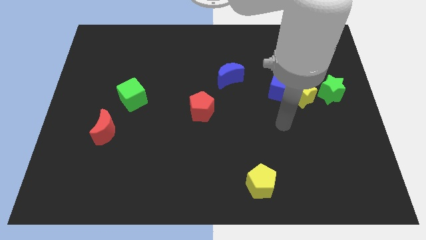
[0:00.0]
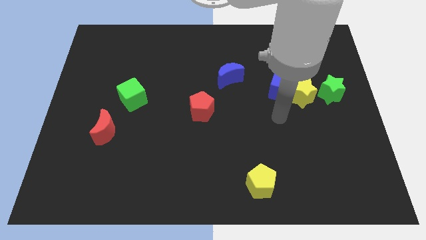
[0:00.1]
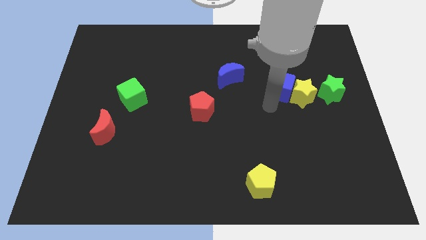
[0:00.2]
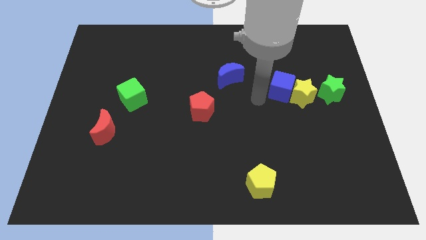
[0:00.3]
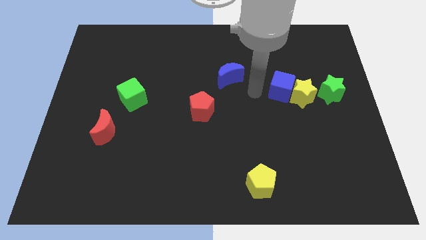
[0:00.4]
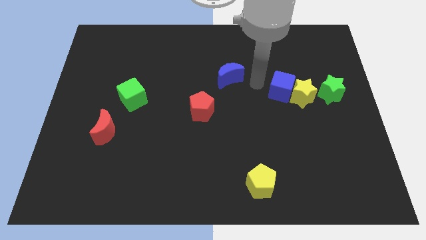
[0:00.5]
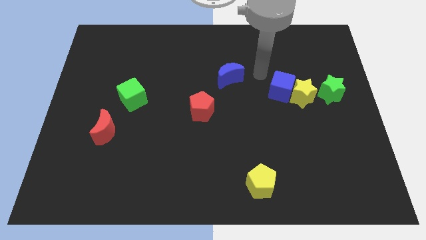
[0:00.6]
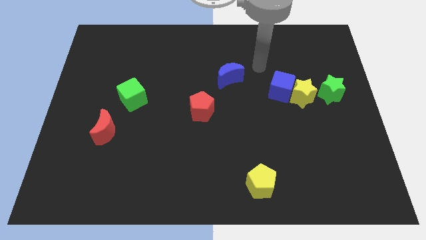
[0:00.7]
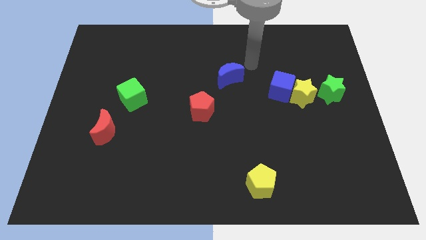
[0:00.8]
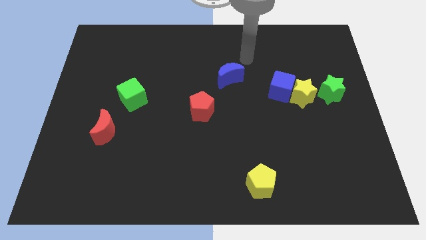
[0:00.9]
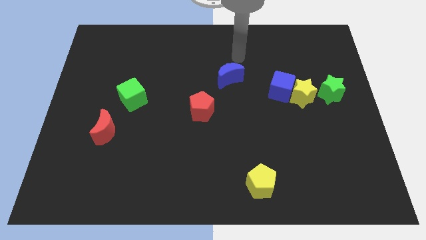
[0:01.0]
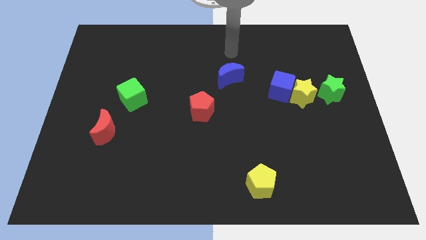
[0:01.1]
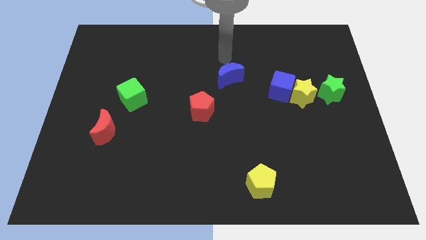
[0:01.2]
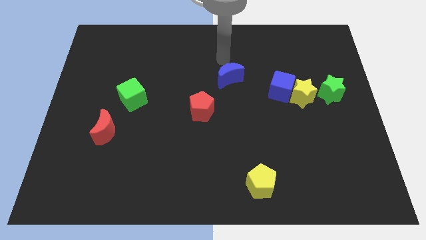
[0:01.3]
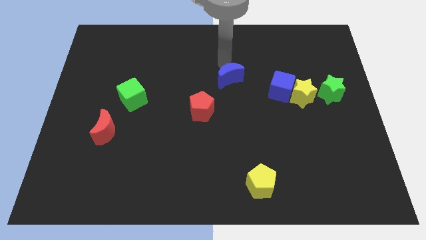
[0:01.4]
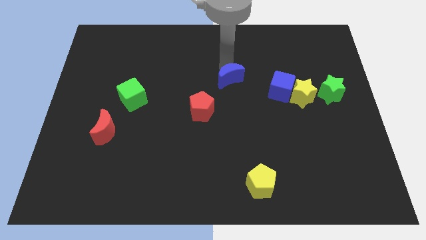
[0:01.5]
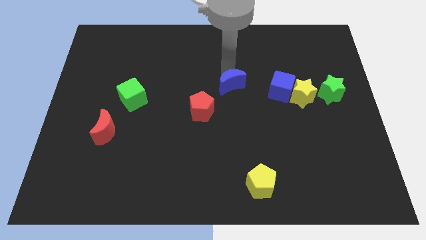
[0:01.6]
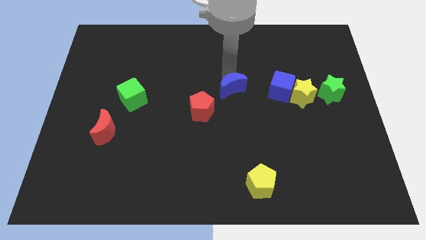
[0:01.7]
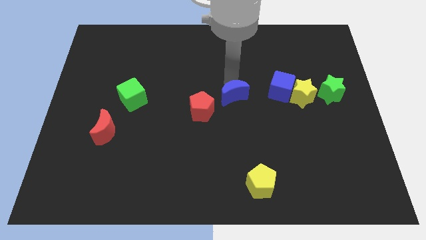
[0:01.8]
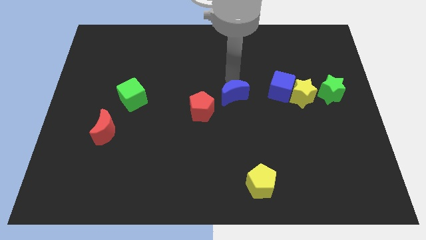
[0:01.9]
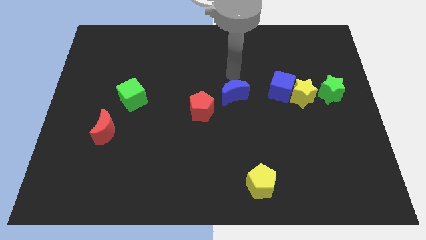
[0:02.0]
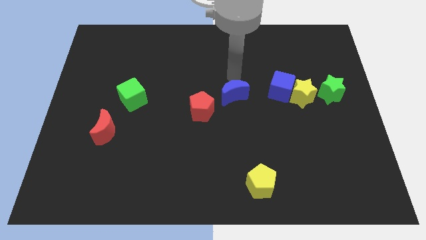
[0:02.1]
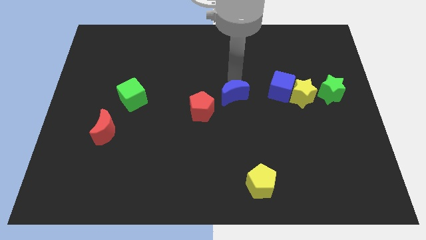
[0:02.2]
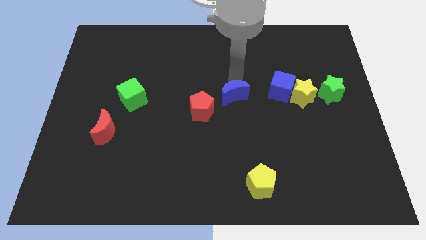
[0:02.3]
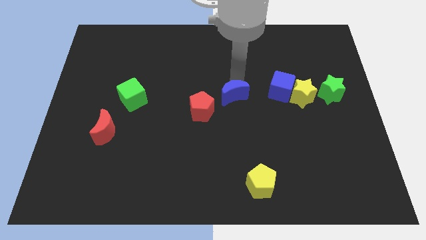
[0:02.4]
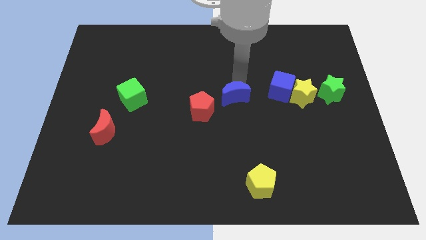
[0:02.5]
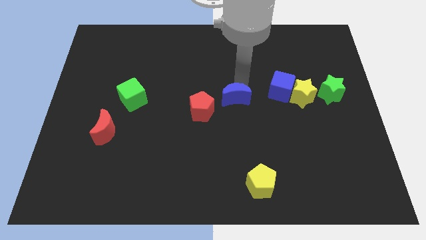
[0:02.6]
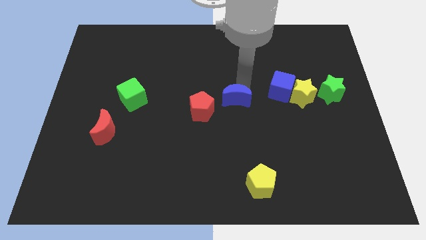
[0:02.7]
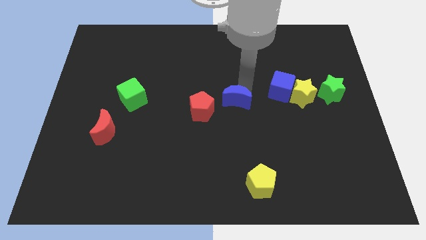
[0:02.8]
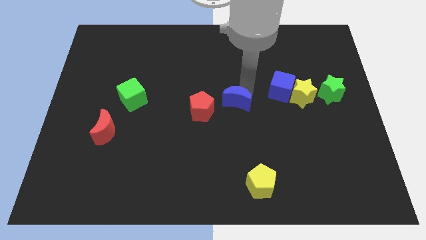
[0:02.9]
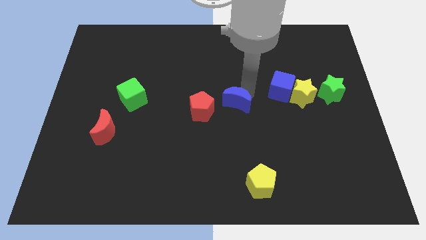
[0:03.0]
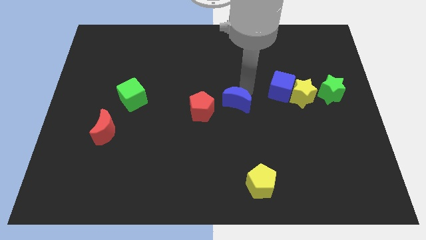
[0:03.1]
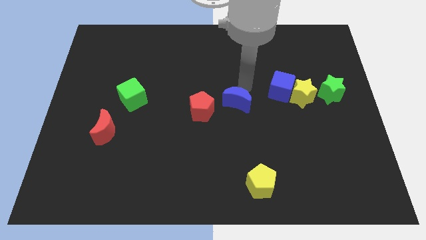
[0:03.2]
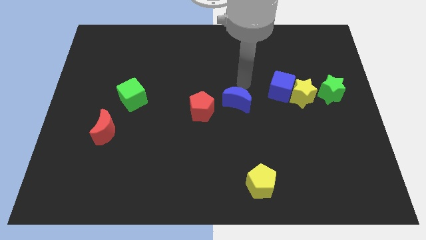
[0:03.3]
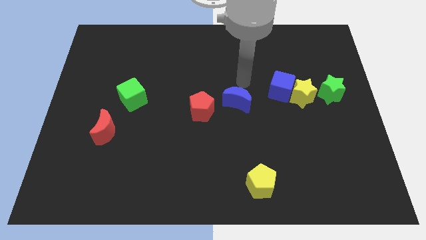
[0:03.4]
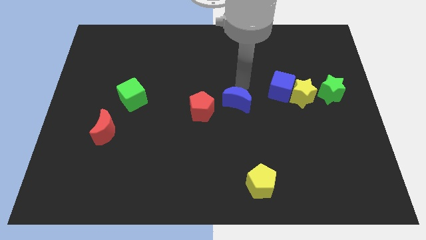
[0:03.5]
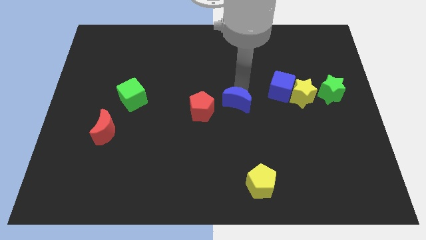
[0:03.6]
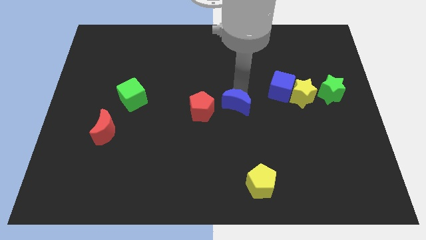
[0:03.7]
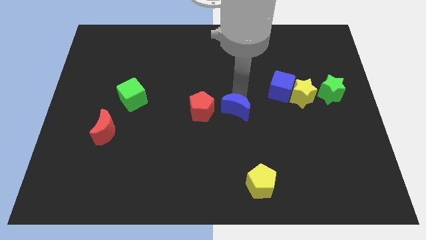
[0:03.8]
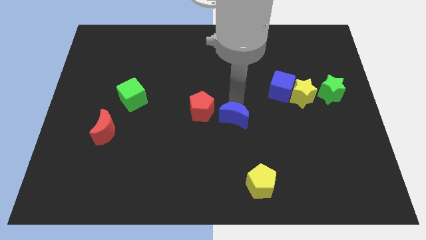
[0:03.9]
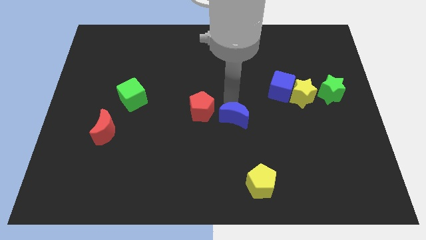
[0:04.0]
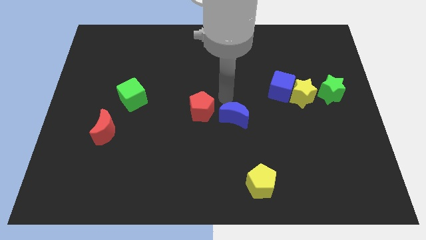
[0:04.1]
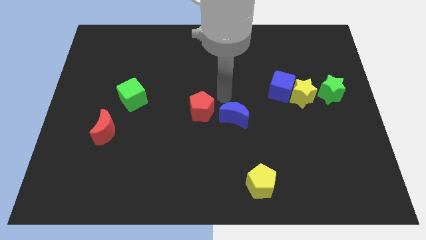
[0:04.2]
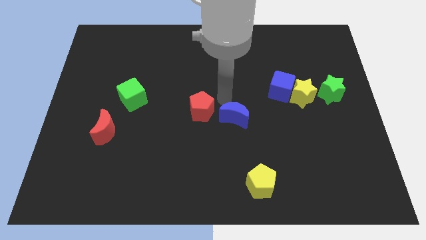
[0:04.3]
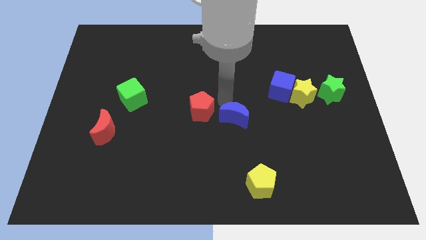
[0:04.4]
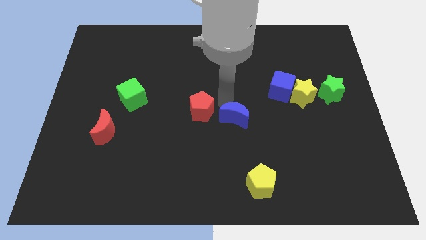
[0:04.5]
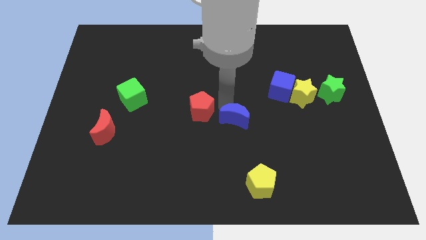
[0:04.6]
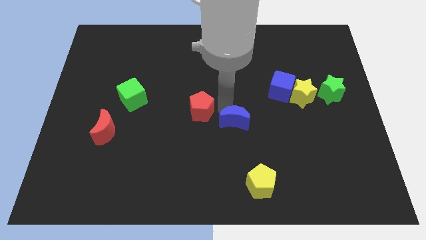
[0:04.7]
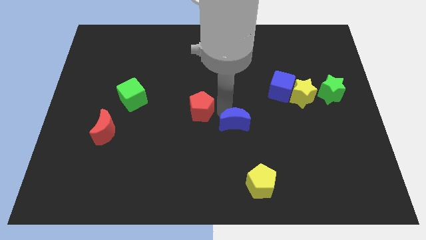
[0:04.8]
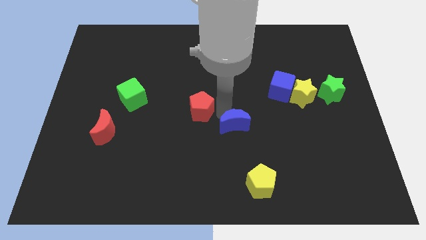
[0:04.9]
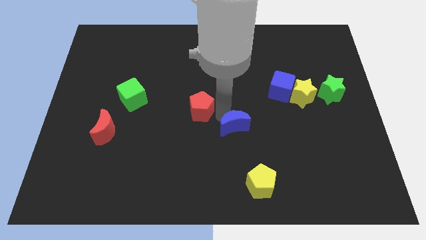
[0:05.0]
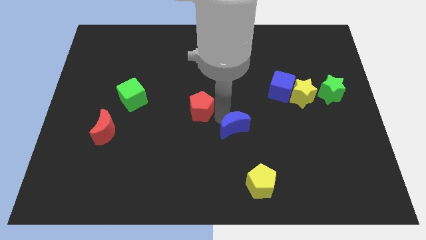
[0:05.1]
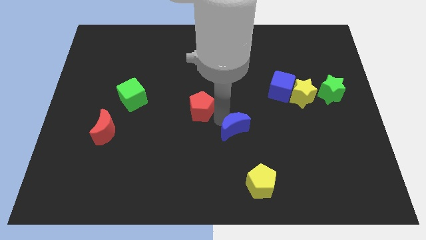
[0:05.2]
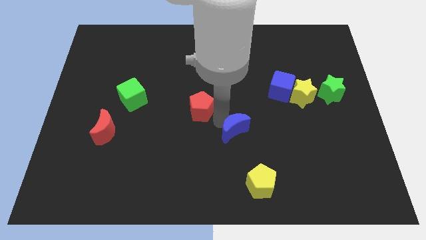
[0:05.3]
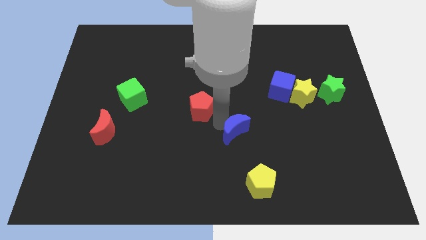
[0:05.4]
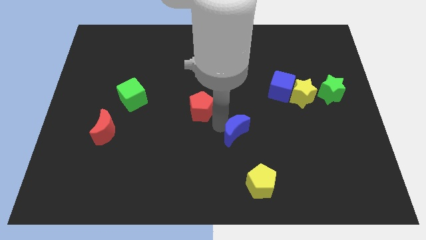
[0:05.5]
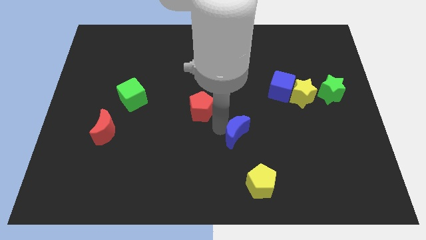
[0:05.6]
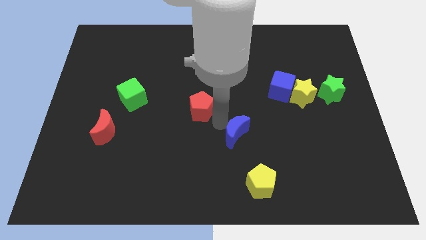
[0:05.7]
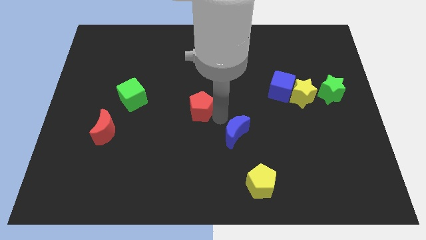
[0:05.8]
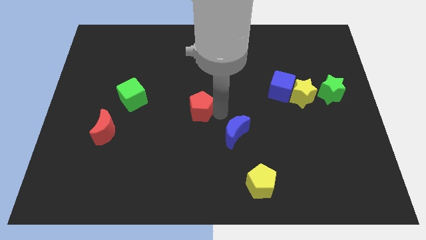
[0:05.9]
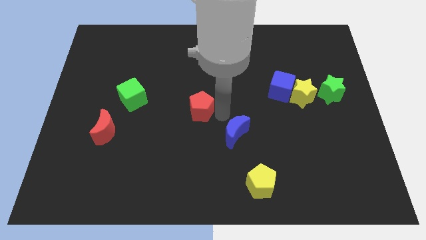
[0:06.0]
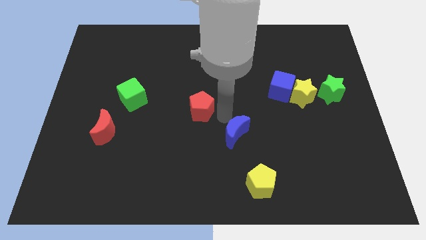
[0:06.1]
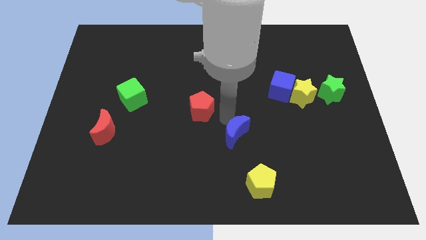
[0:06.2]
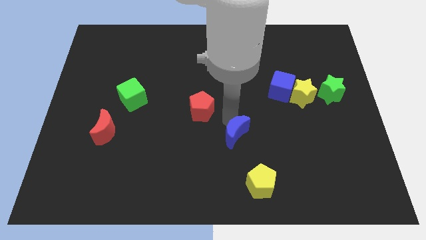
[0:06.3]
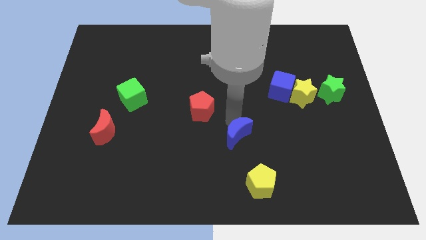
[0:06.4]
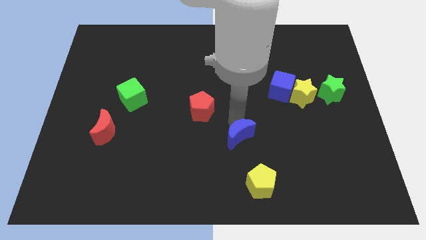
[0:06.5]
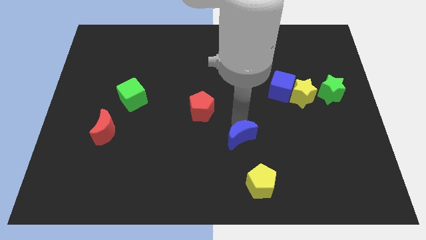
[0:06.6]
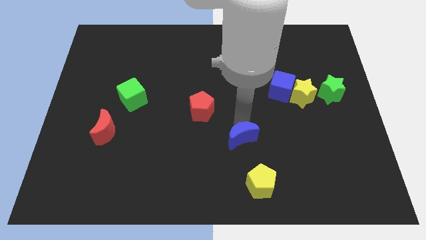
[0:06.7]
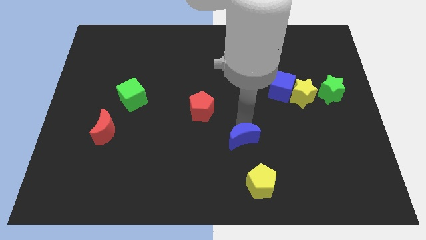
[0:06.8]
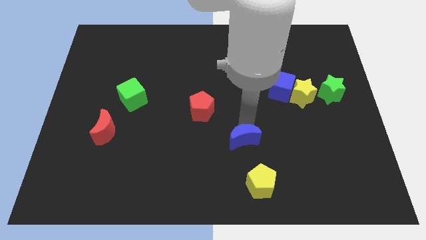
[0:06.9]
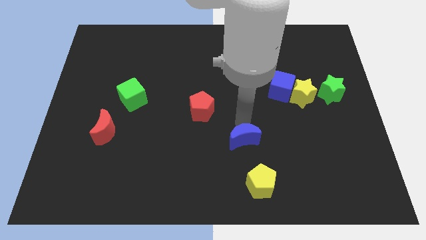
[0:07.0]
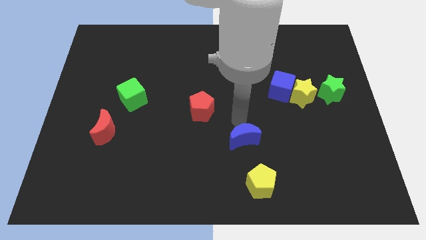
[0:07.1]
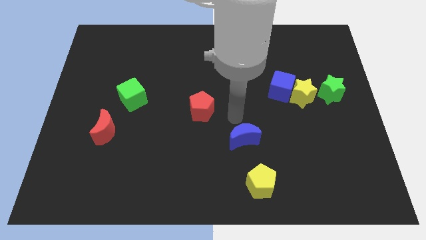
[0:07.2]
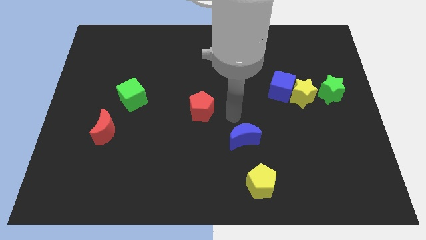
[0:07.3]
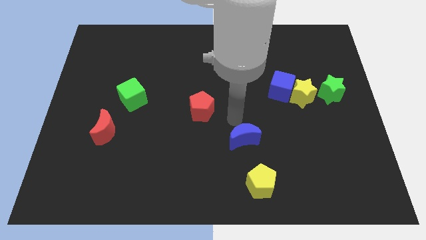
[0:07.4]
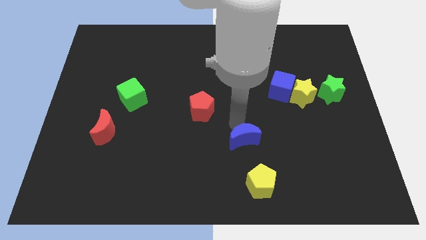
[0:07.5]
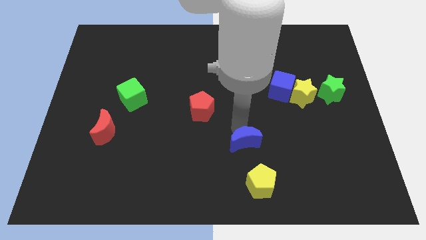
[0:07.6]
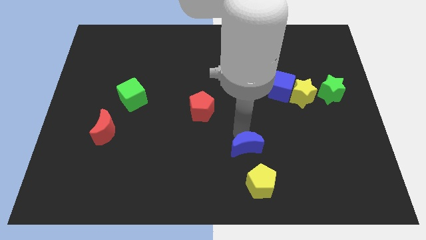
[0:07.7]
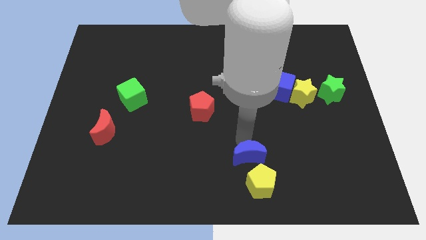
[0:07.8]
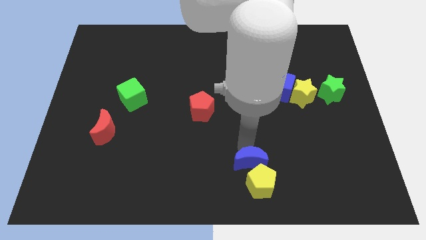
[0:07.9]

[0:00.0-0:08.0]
push the blue moon close to the yellow pentagon
